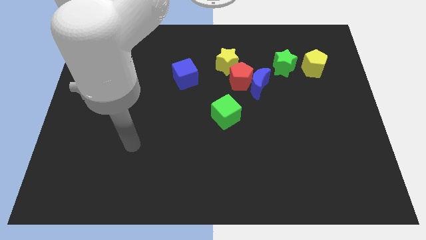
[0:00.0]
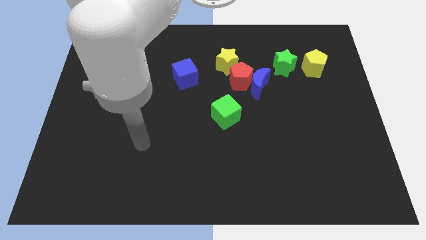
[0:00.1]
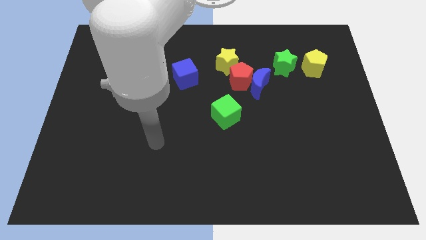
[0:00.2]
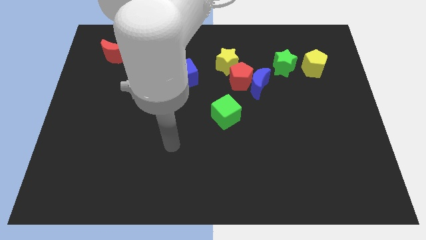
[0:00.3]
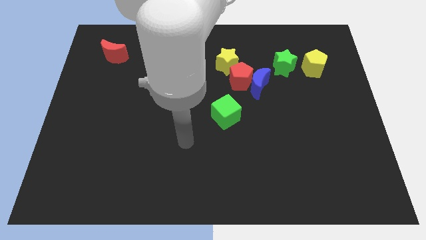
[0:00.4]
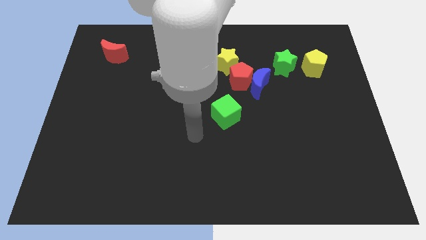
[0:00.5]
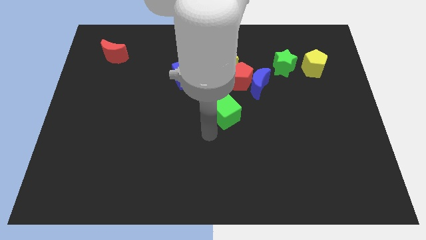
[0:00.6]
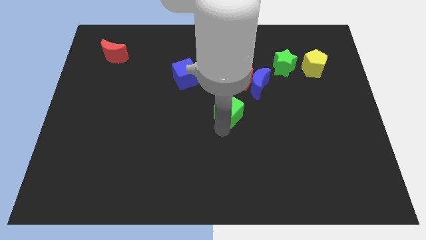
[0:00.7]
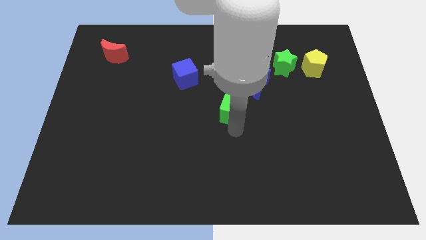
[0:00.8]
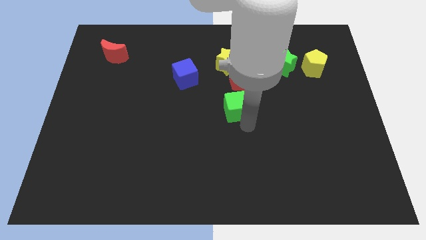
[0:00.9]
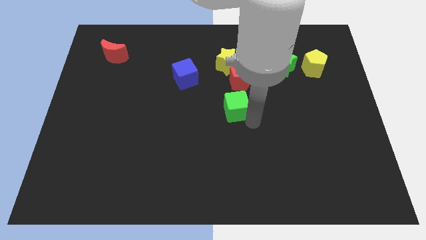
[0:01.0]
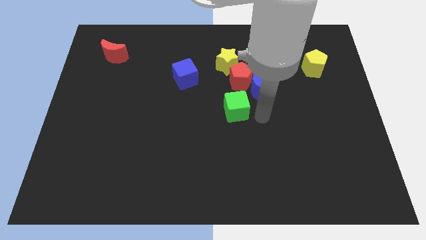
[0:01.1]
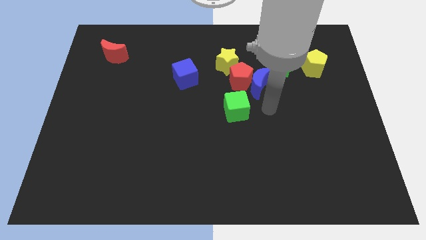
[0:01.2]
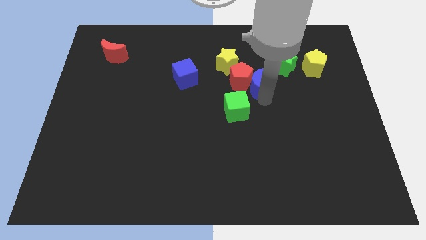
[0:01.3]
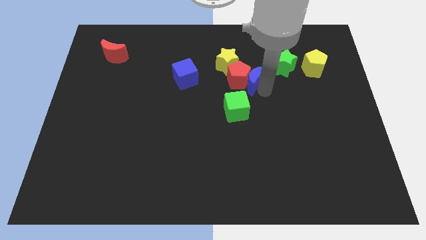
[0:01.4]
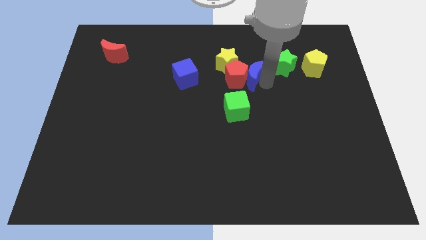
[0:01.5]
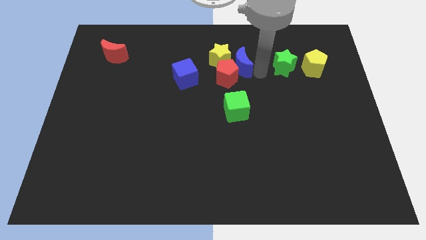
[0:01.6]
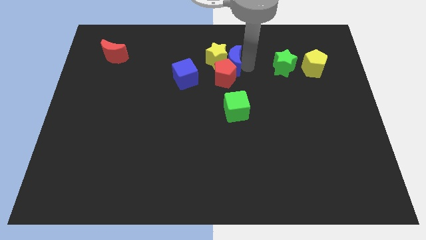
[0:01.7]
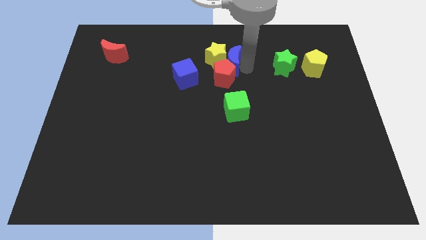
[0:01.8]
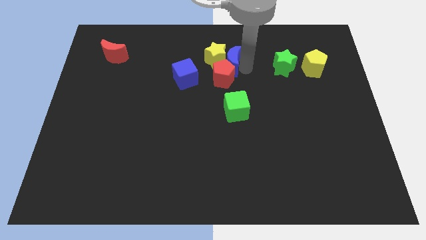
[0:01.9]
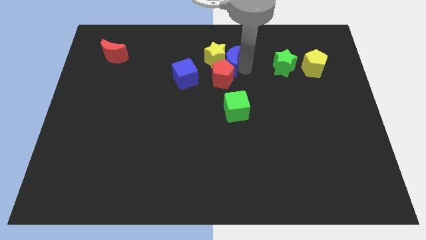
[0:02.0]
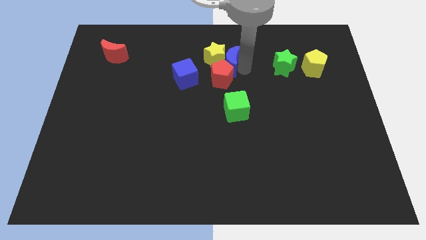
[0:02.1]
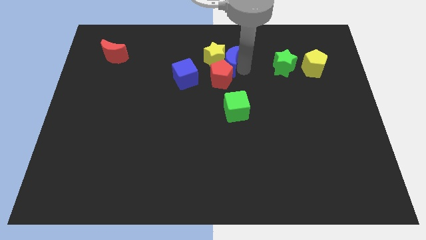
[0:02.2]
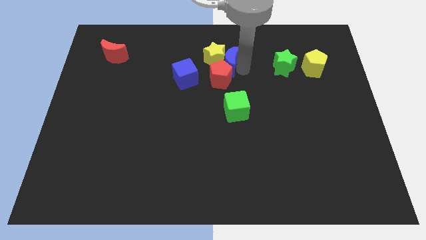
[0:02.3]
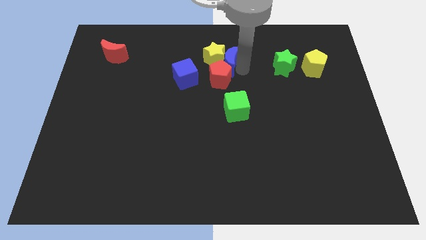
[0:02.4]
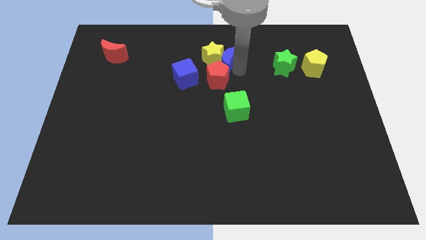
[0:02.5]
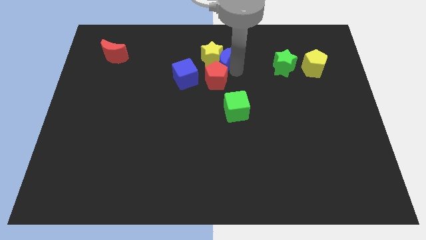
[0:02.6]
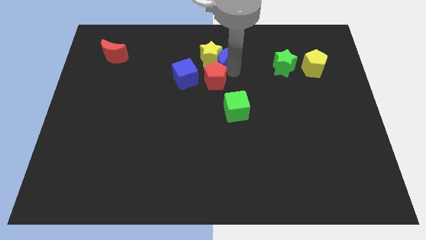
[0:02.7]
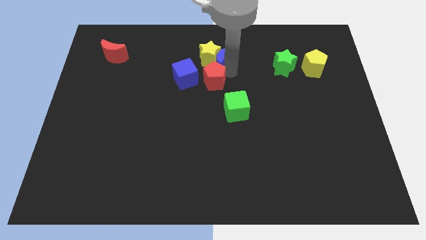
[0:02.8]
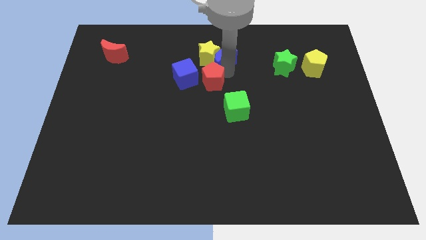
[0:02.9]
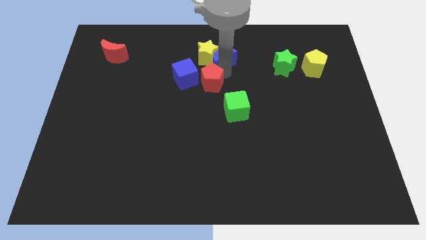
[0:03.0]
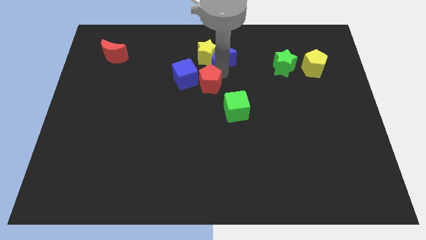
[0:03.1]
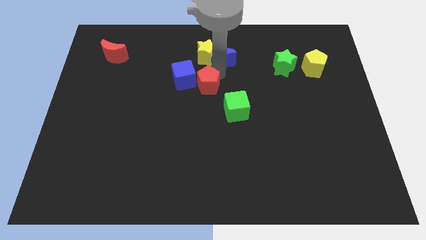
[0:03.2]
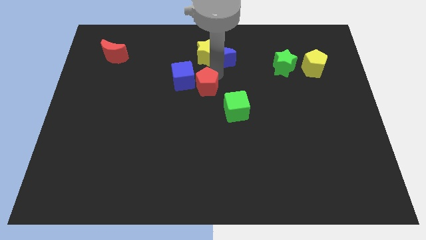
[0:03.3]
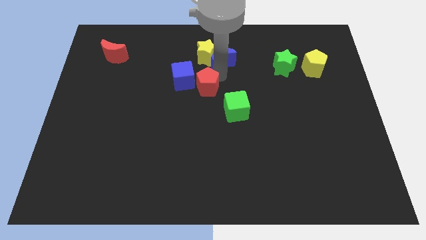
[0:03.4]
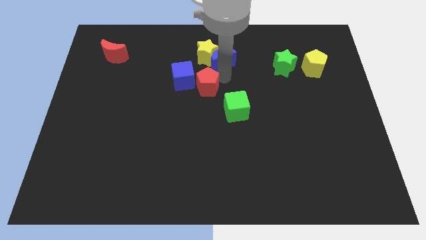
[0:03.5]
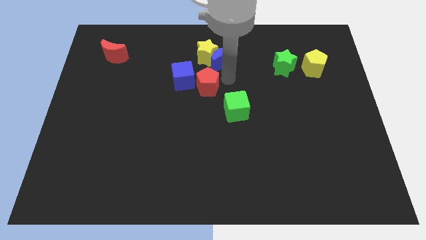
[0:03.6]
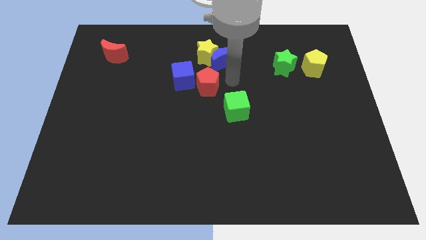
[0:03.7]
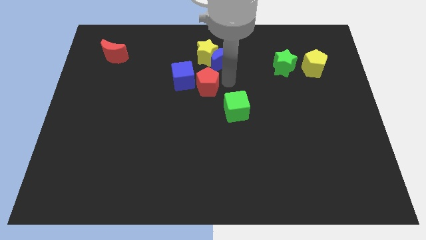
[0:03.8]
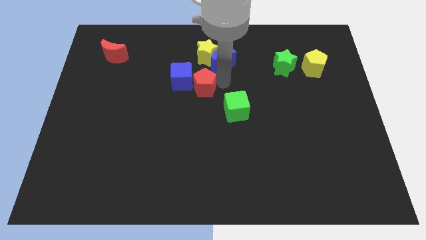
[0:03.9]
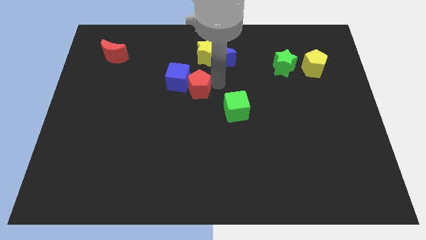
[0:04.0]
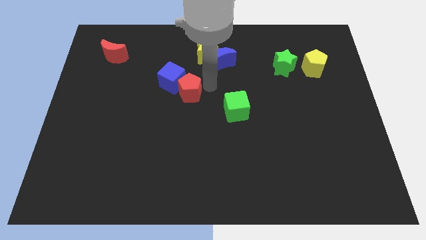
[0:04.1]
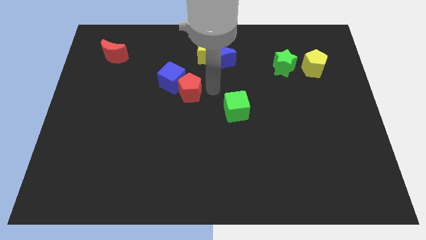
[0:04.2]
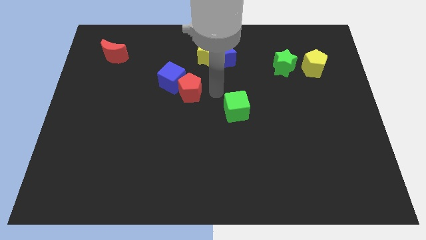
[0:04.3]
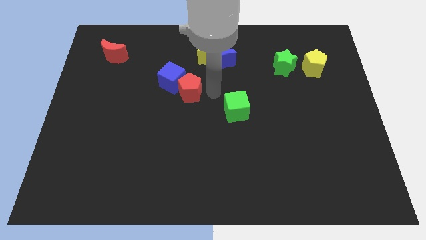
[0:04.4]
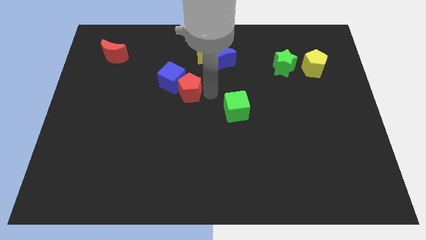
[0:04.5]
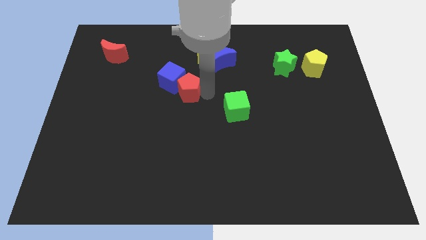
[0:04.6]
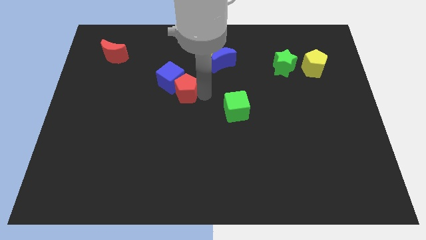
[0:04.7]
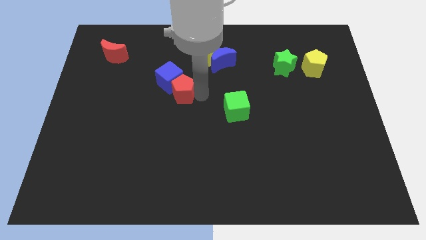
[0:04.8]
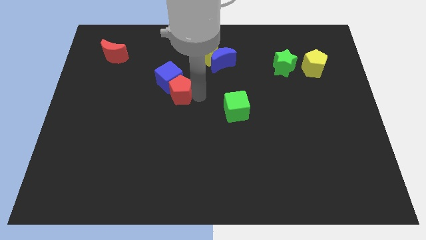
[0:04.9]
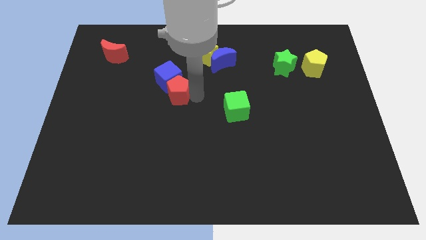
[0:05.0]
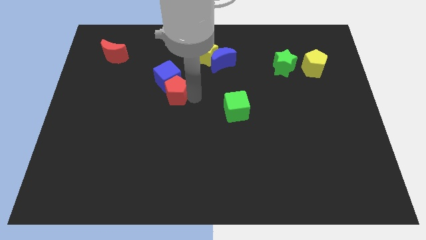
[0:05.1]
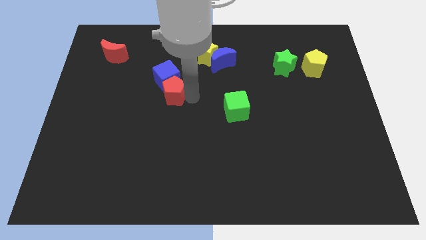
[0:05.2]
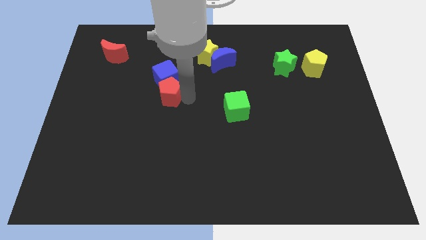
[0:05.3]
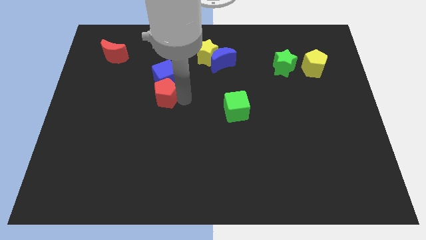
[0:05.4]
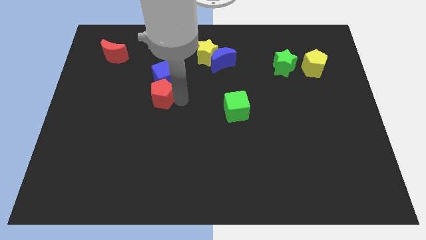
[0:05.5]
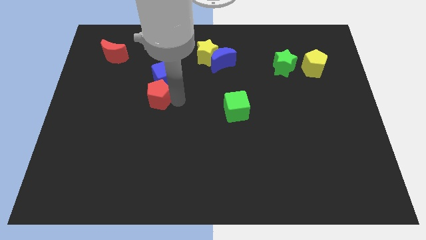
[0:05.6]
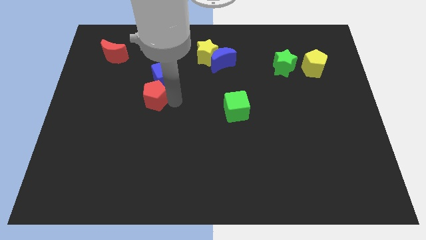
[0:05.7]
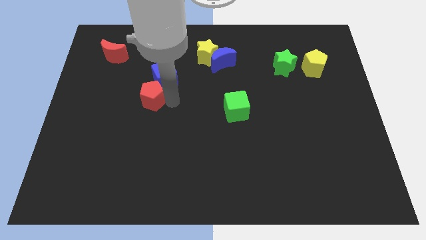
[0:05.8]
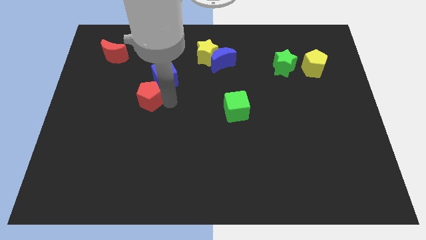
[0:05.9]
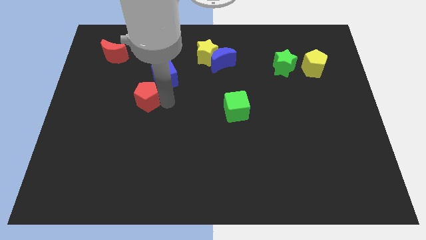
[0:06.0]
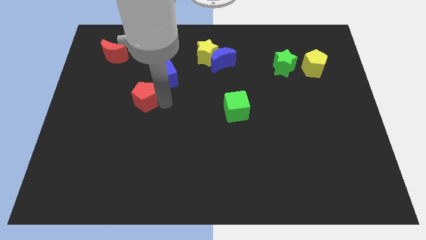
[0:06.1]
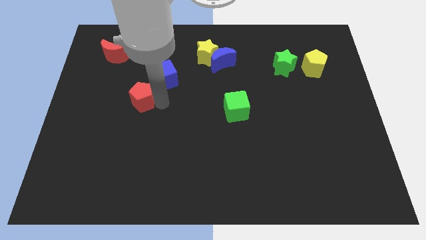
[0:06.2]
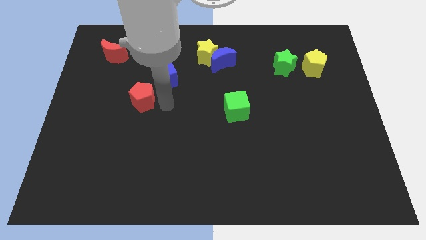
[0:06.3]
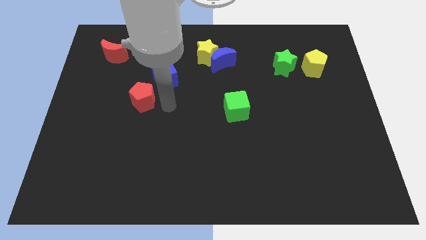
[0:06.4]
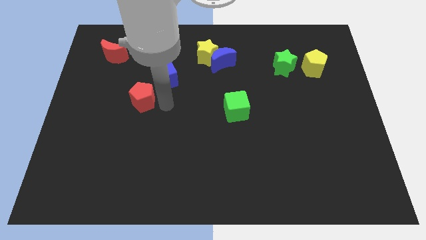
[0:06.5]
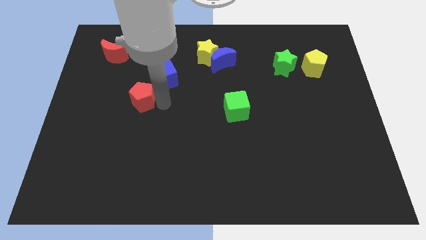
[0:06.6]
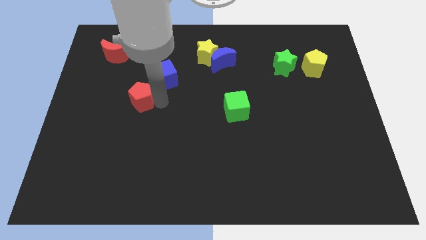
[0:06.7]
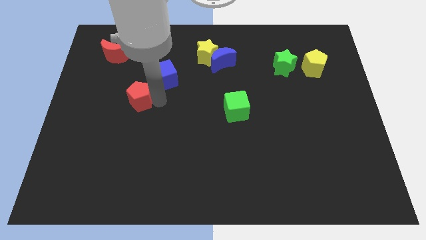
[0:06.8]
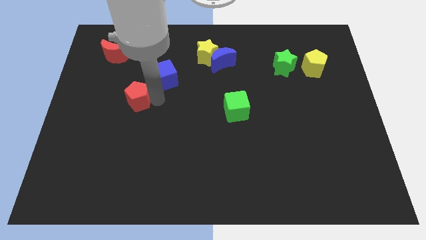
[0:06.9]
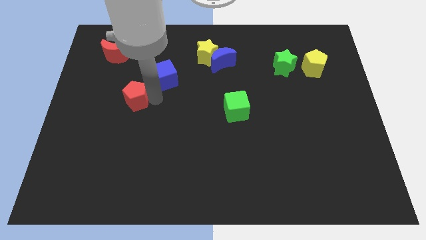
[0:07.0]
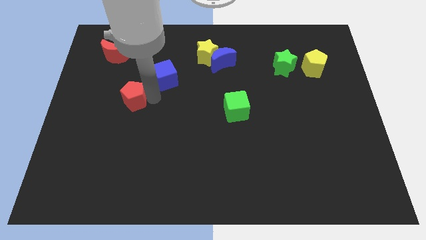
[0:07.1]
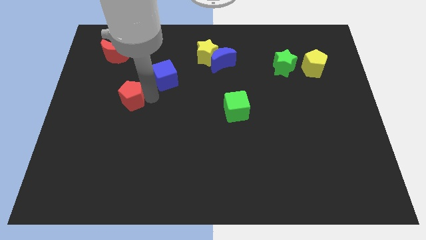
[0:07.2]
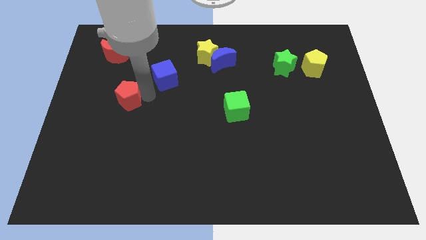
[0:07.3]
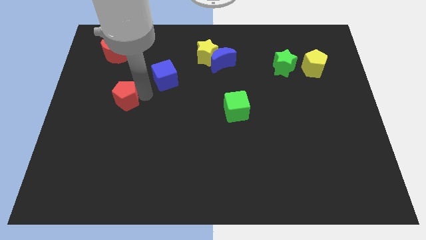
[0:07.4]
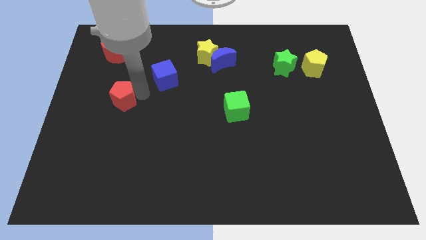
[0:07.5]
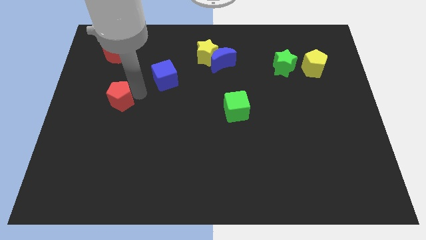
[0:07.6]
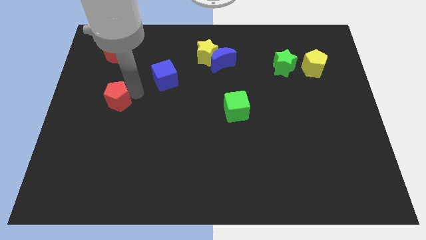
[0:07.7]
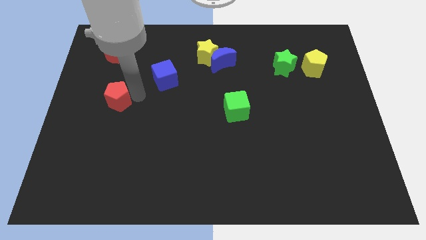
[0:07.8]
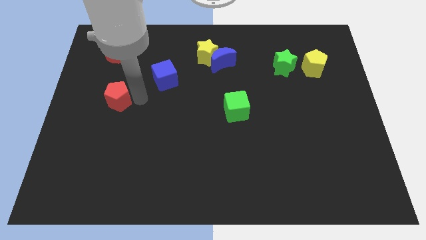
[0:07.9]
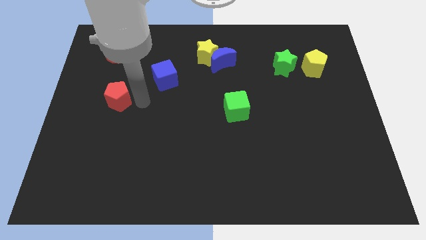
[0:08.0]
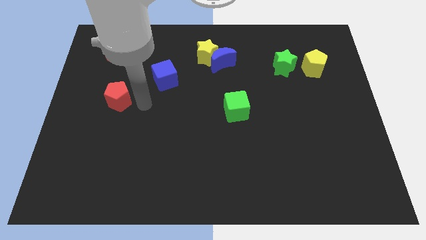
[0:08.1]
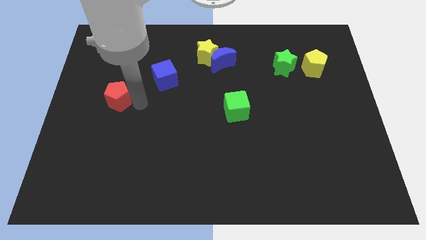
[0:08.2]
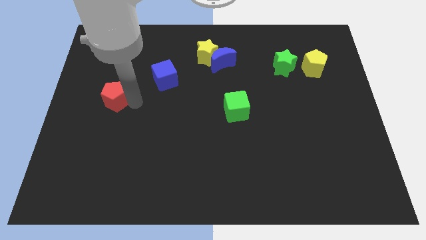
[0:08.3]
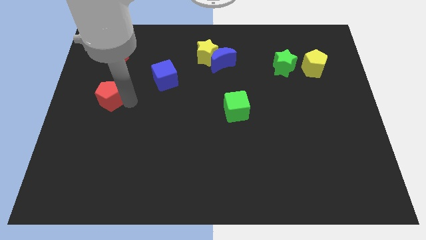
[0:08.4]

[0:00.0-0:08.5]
push the red pentagon to the center left
